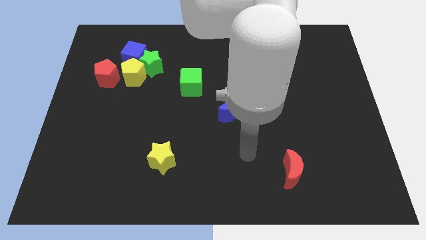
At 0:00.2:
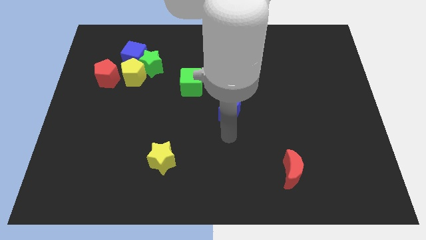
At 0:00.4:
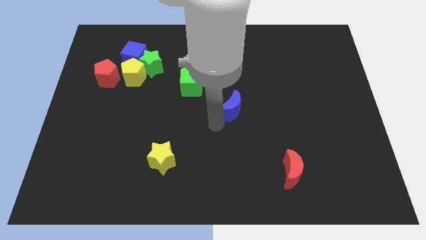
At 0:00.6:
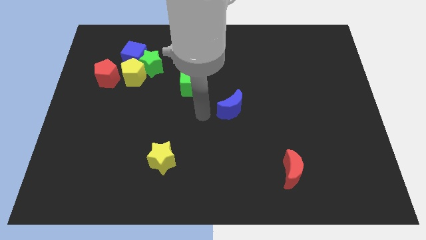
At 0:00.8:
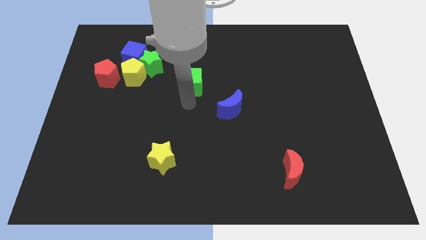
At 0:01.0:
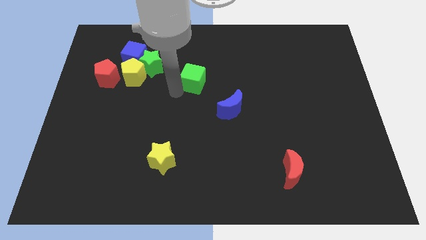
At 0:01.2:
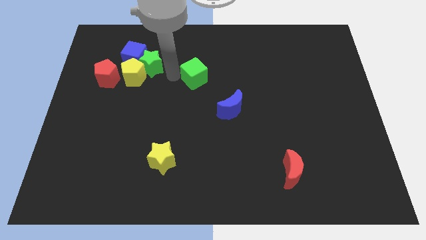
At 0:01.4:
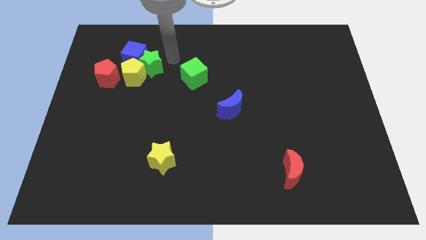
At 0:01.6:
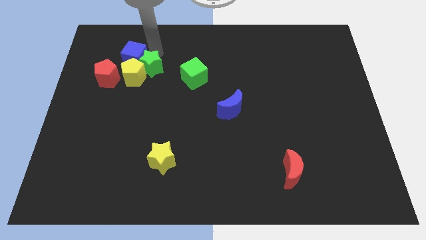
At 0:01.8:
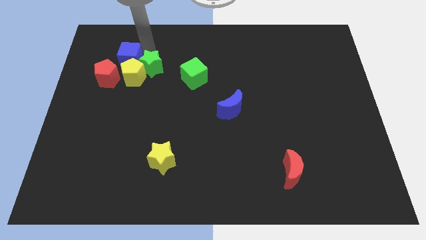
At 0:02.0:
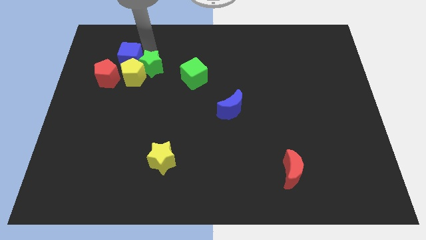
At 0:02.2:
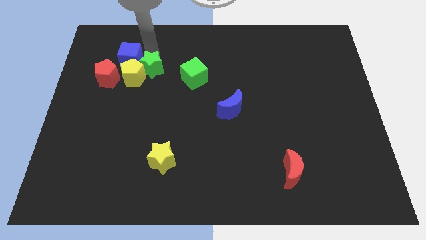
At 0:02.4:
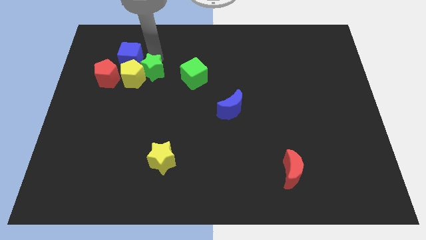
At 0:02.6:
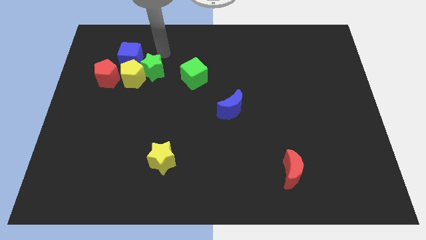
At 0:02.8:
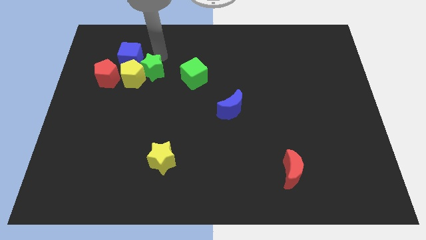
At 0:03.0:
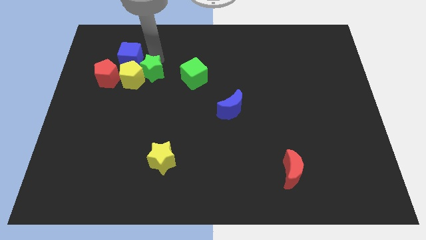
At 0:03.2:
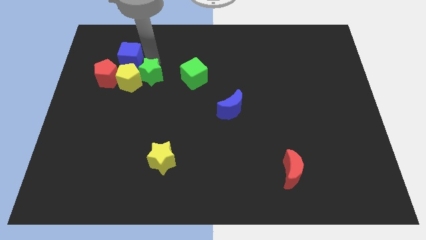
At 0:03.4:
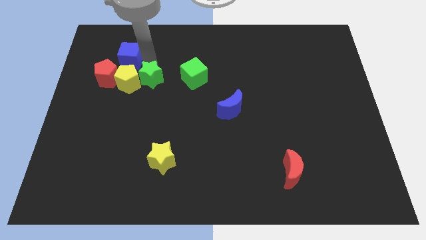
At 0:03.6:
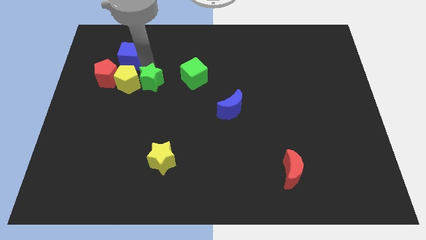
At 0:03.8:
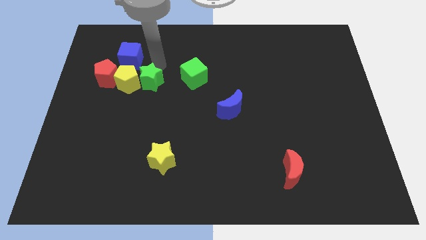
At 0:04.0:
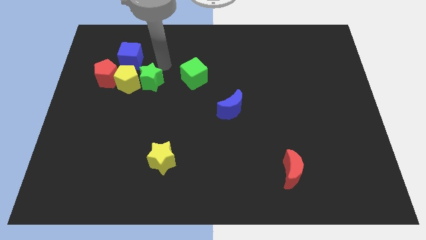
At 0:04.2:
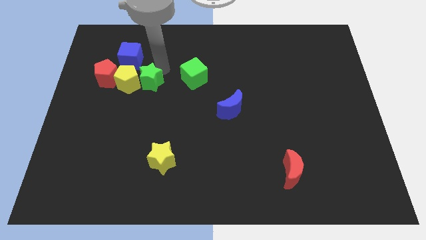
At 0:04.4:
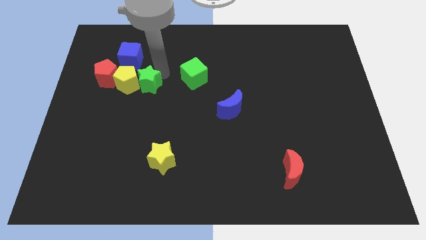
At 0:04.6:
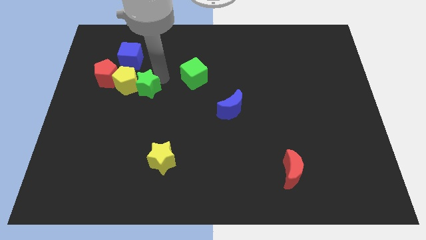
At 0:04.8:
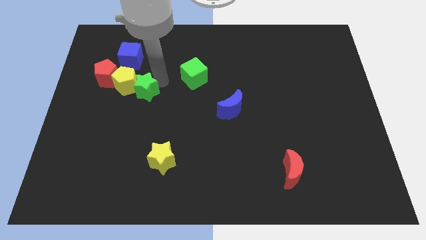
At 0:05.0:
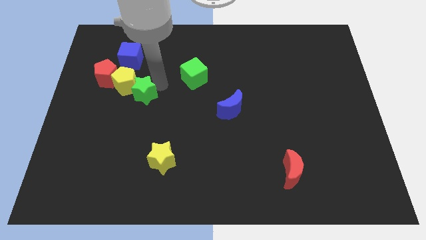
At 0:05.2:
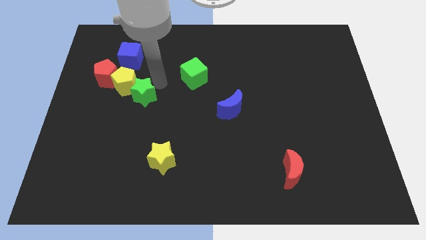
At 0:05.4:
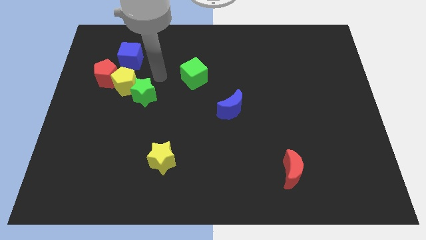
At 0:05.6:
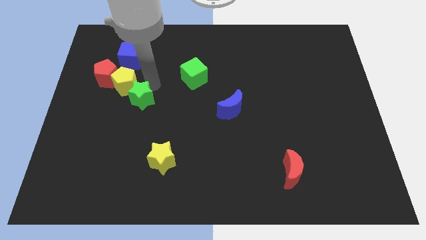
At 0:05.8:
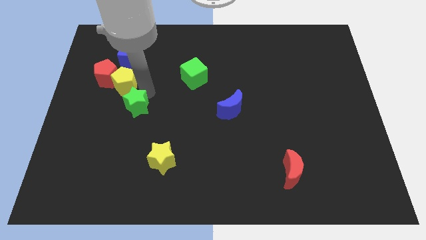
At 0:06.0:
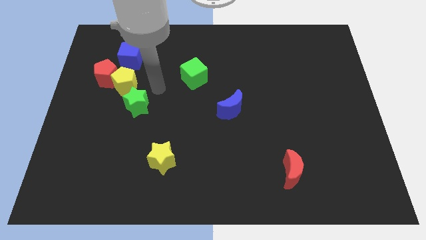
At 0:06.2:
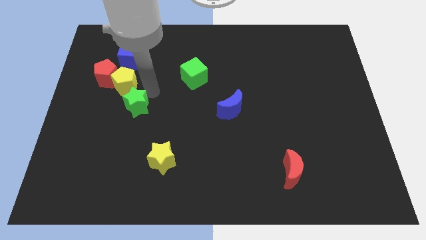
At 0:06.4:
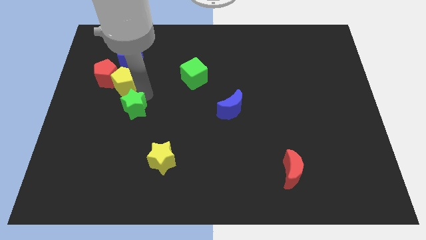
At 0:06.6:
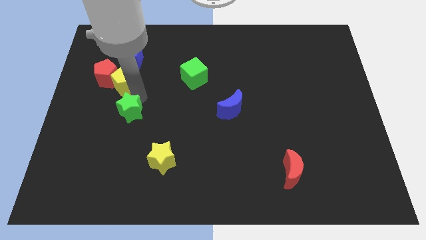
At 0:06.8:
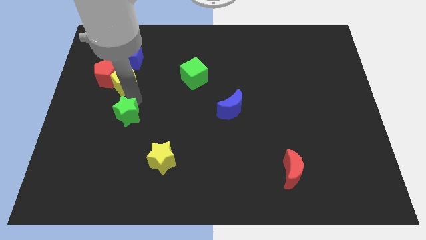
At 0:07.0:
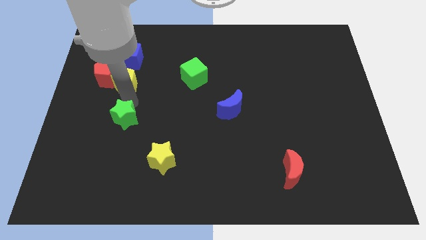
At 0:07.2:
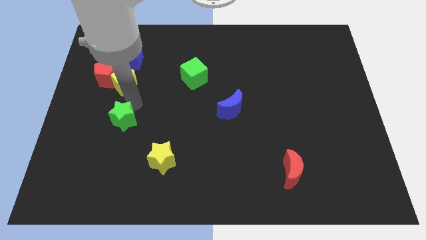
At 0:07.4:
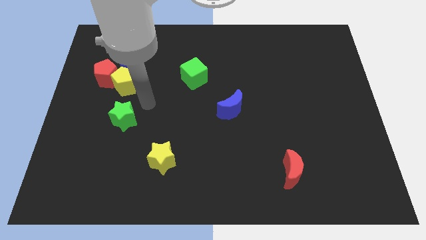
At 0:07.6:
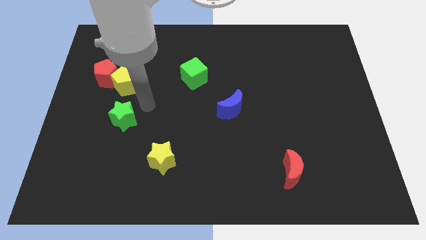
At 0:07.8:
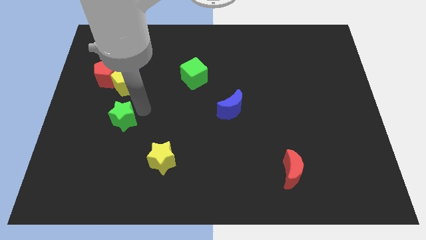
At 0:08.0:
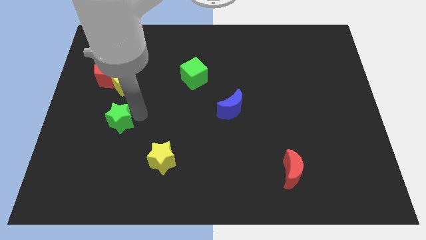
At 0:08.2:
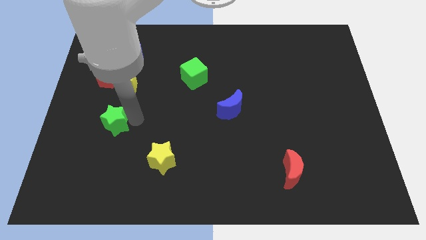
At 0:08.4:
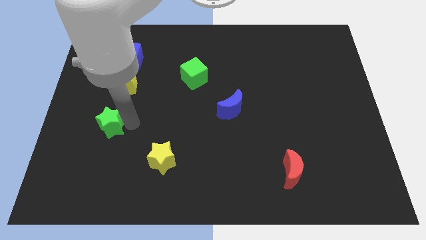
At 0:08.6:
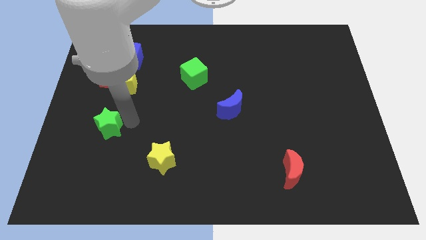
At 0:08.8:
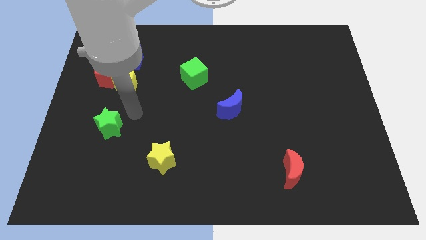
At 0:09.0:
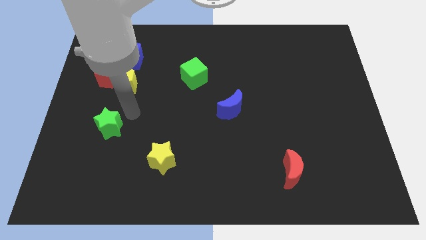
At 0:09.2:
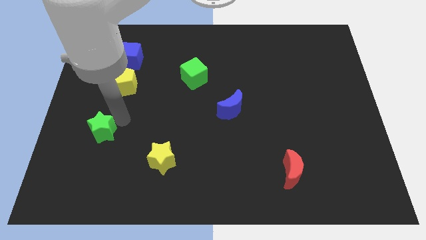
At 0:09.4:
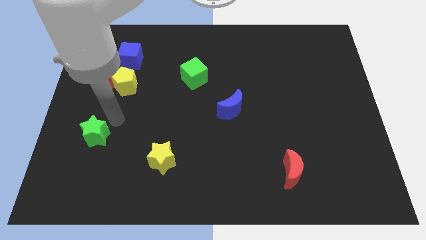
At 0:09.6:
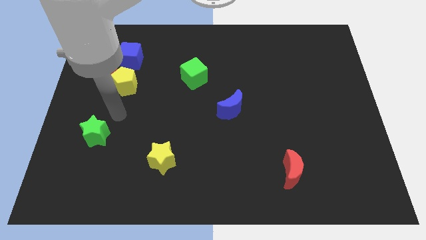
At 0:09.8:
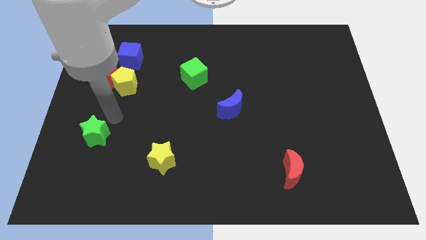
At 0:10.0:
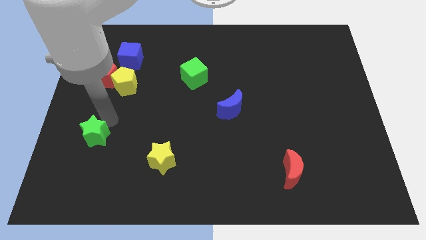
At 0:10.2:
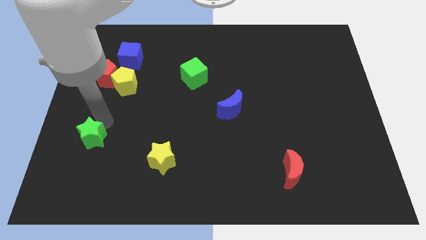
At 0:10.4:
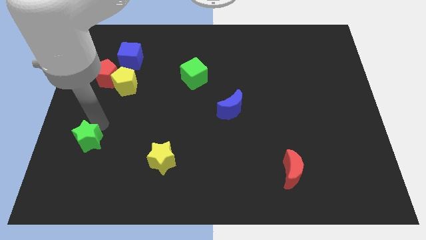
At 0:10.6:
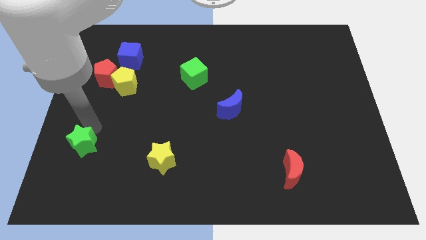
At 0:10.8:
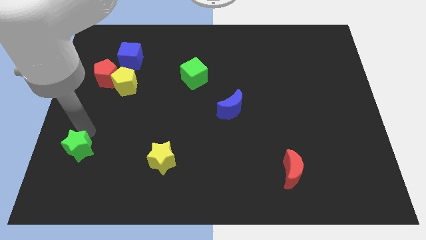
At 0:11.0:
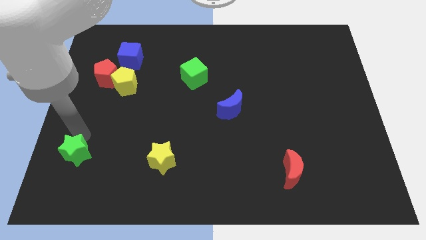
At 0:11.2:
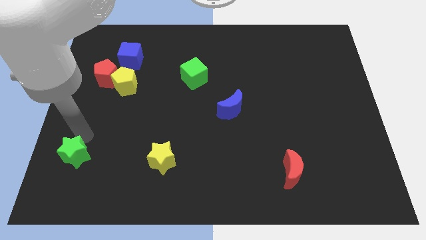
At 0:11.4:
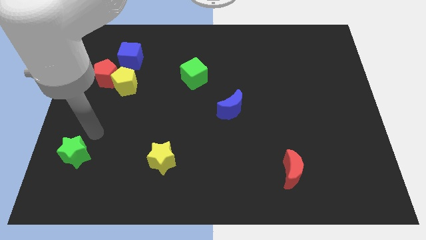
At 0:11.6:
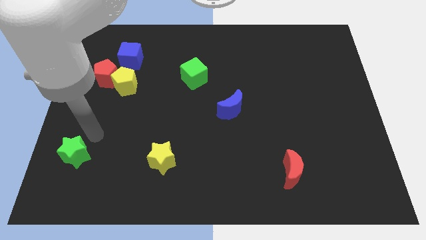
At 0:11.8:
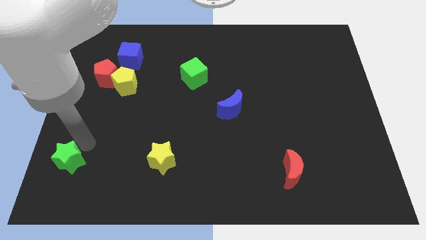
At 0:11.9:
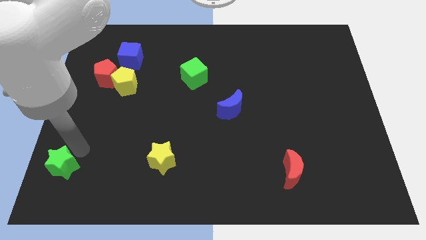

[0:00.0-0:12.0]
slide the green star to the bottom left corner
